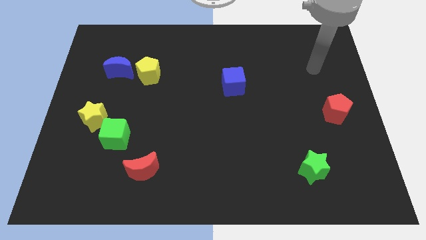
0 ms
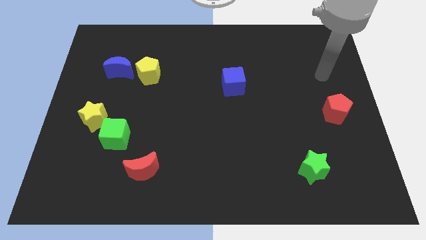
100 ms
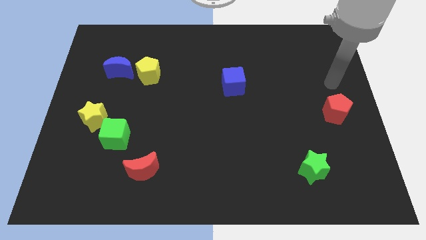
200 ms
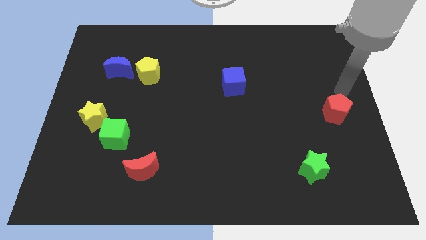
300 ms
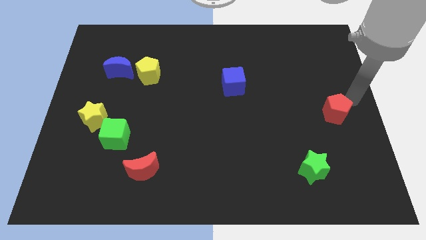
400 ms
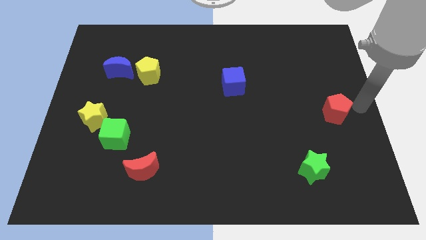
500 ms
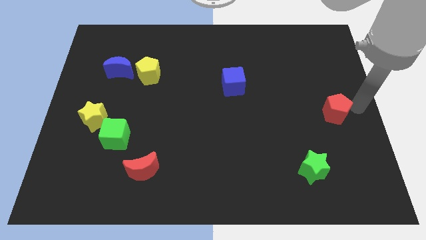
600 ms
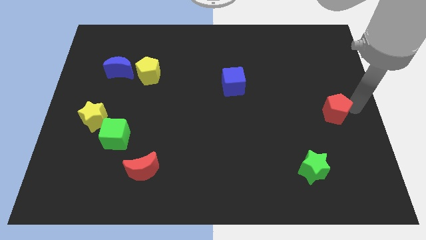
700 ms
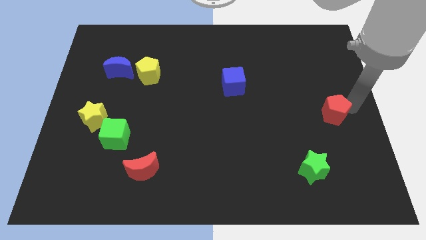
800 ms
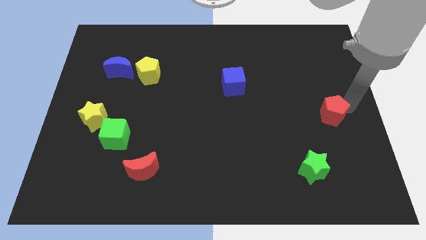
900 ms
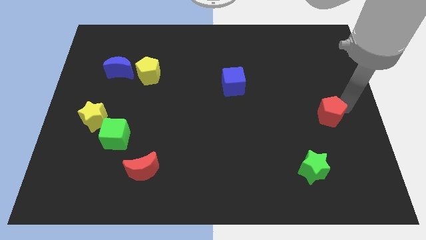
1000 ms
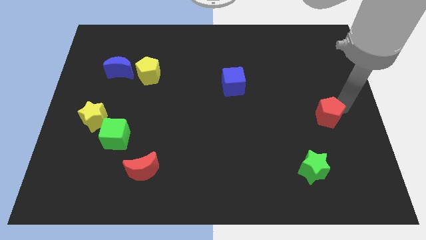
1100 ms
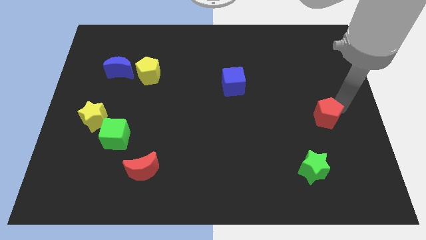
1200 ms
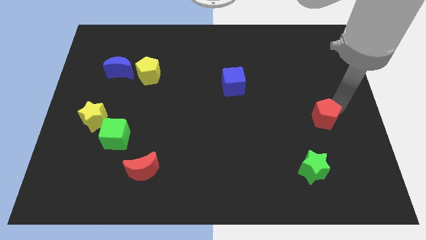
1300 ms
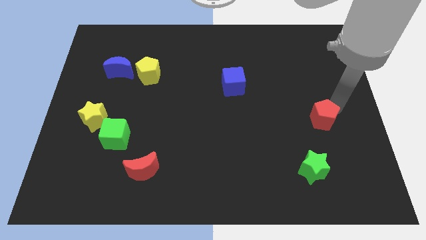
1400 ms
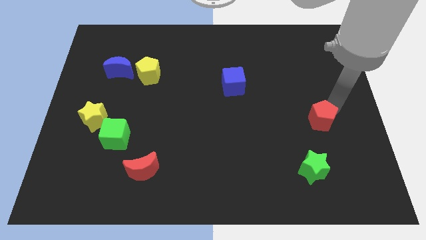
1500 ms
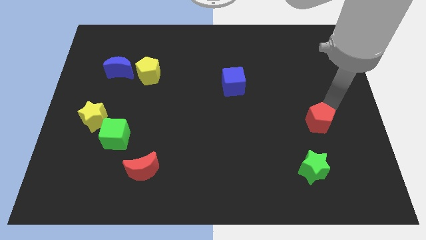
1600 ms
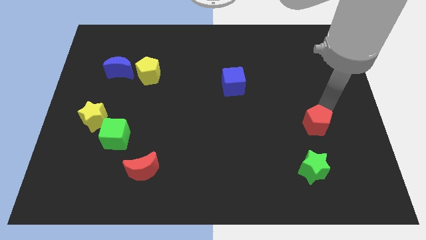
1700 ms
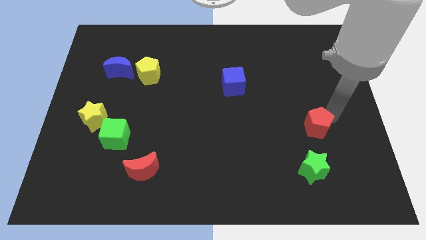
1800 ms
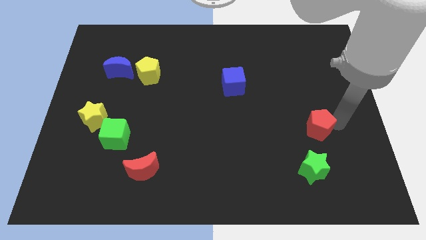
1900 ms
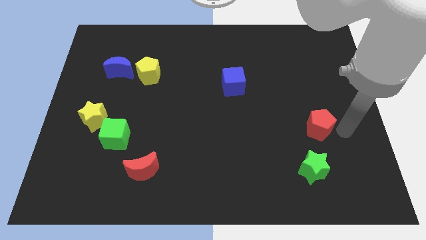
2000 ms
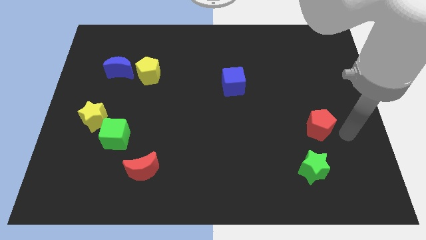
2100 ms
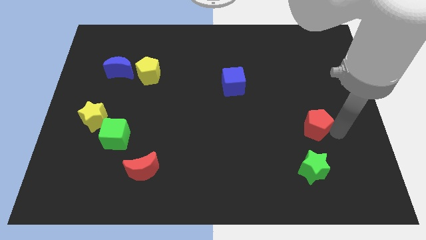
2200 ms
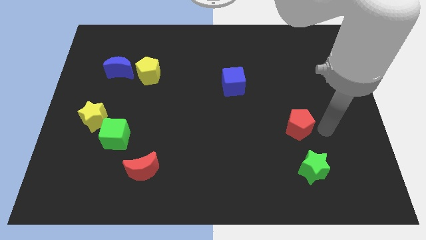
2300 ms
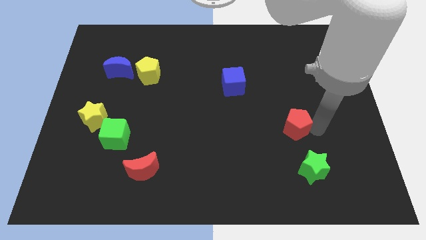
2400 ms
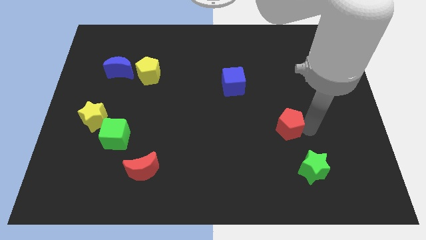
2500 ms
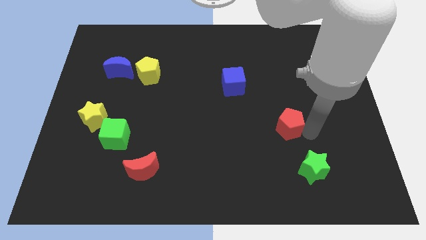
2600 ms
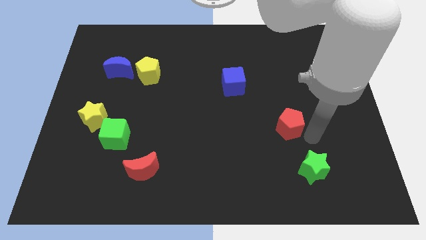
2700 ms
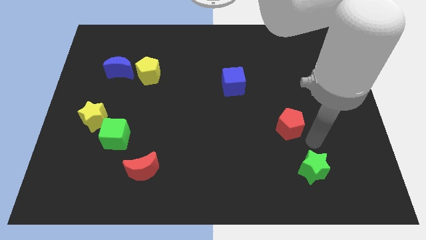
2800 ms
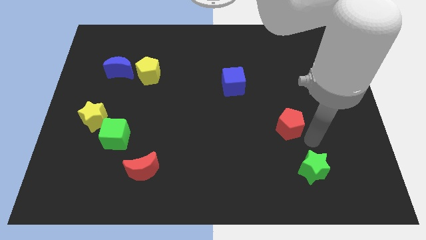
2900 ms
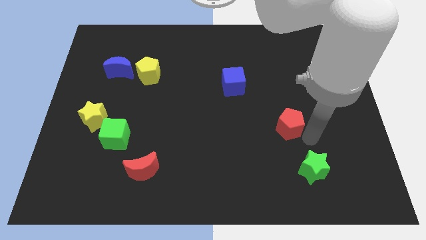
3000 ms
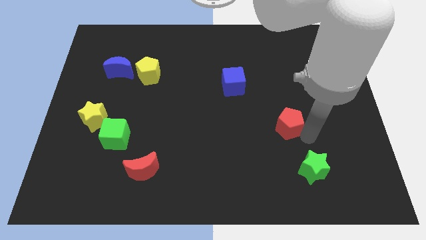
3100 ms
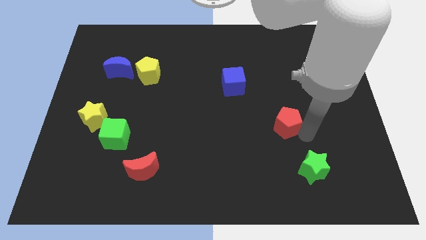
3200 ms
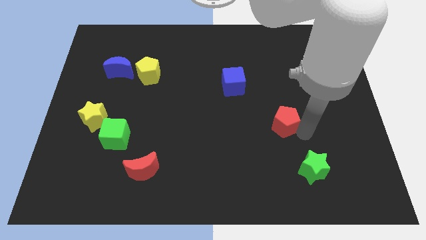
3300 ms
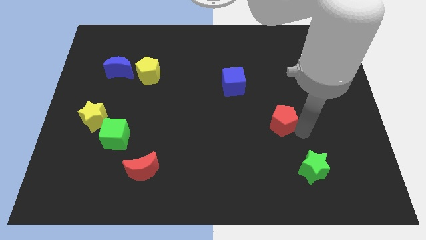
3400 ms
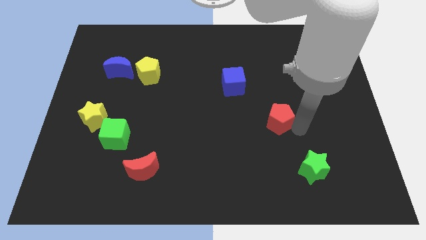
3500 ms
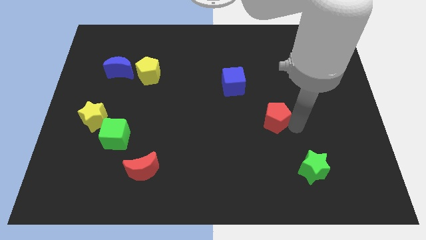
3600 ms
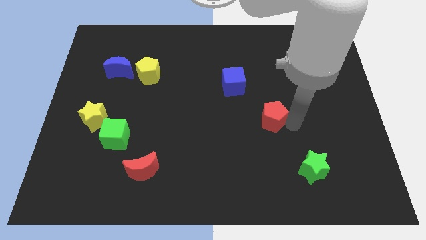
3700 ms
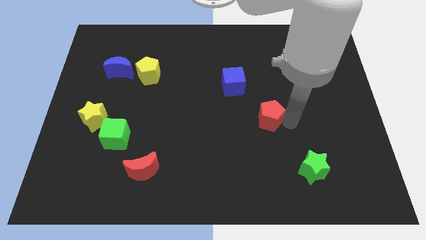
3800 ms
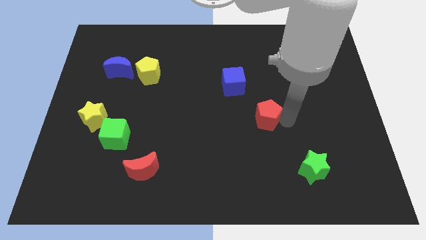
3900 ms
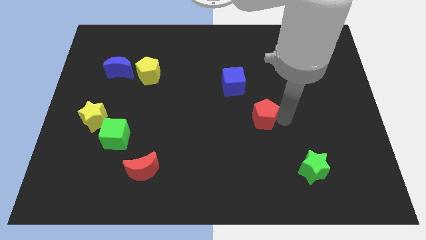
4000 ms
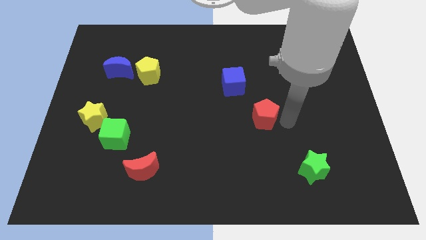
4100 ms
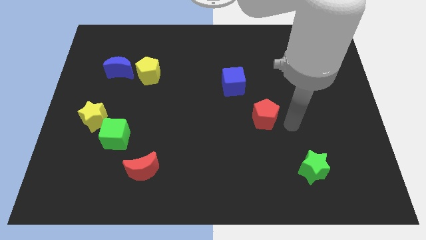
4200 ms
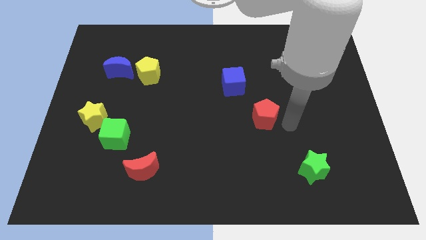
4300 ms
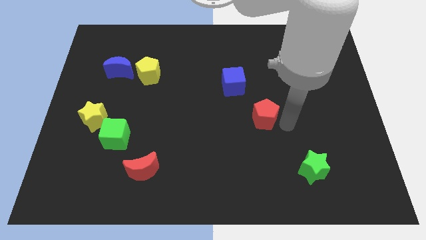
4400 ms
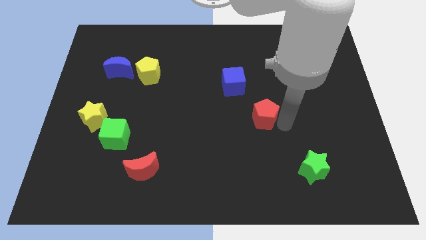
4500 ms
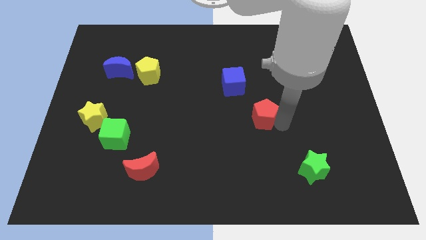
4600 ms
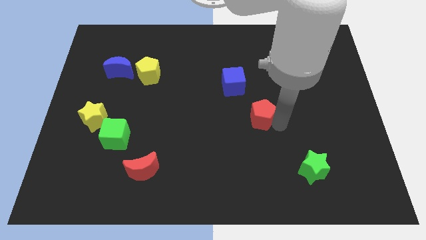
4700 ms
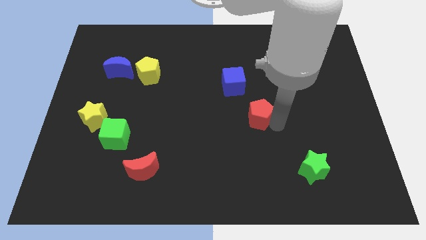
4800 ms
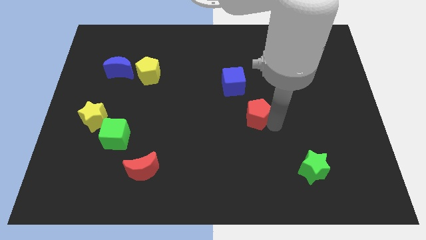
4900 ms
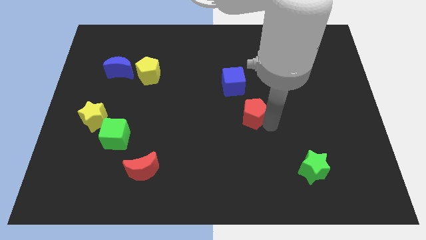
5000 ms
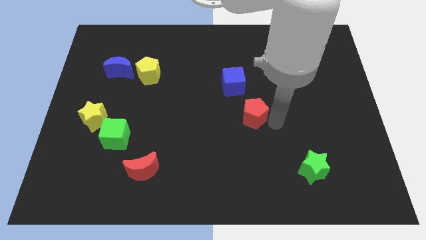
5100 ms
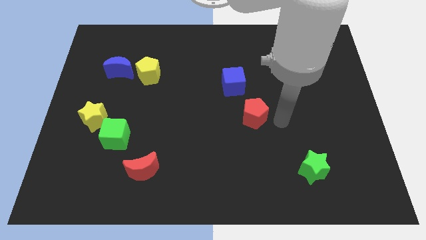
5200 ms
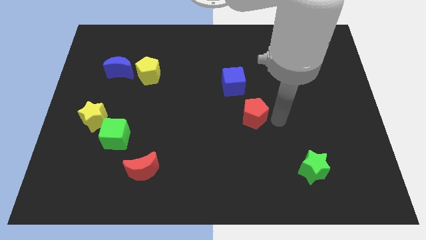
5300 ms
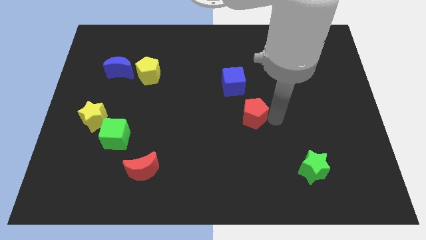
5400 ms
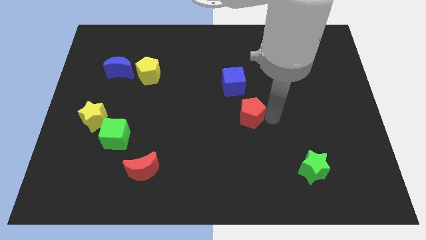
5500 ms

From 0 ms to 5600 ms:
move the red pentagon left

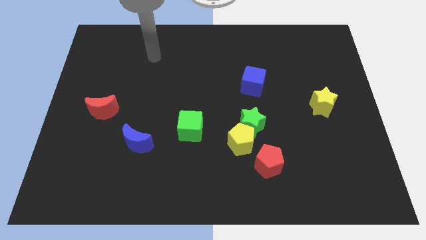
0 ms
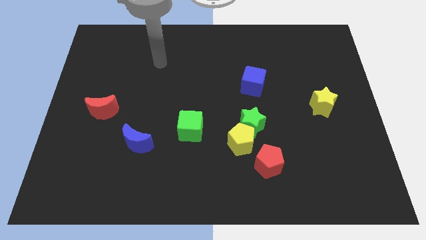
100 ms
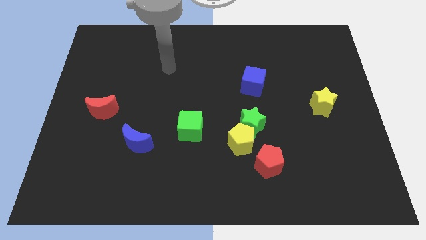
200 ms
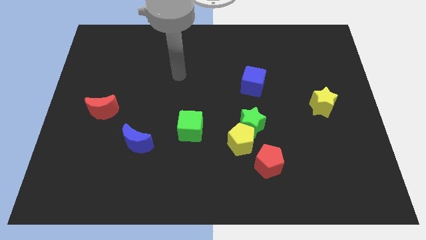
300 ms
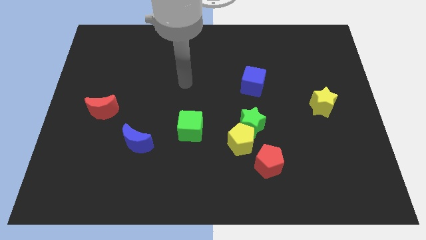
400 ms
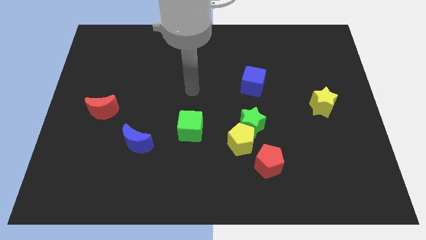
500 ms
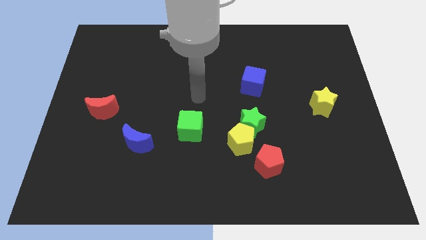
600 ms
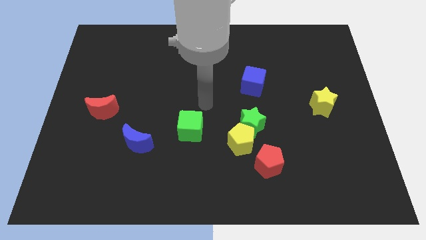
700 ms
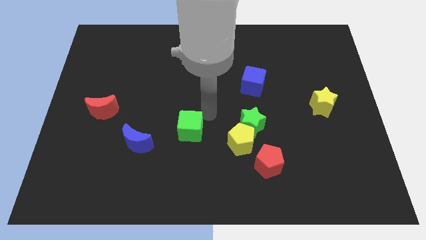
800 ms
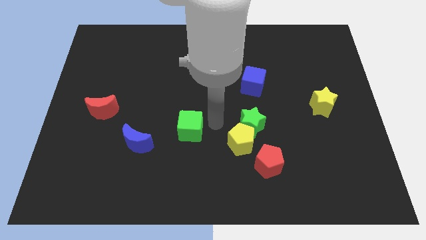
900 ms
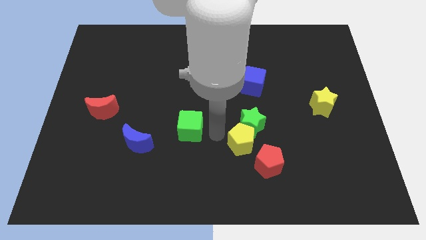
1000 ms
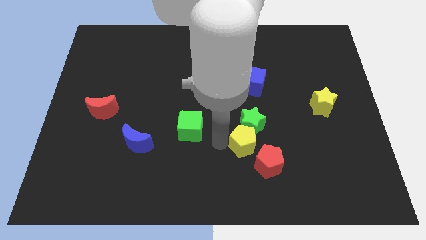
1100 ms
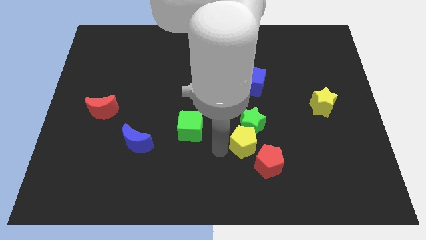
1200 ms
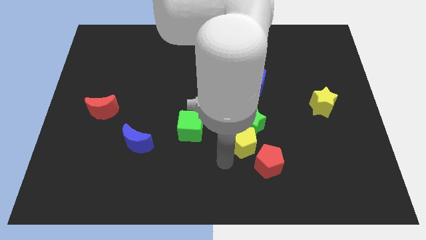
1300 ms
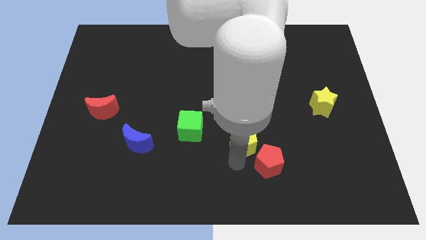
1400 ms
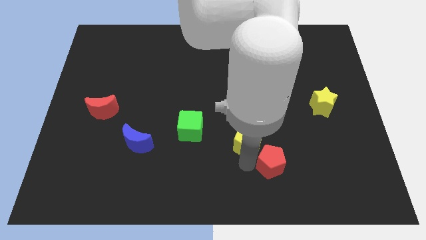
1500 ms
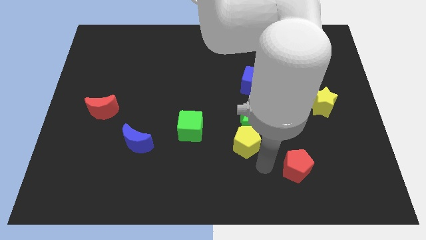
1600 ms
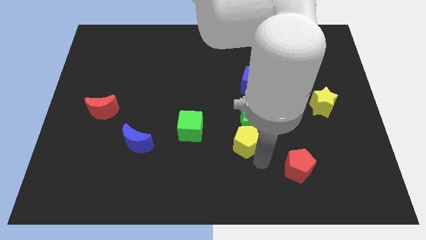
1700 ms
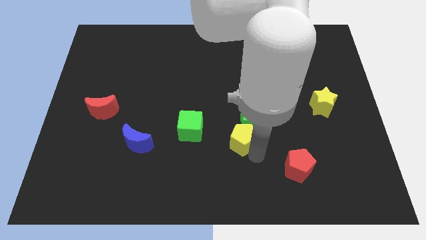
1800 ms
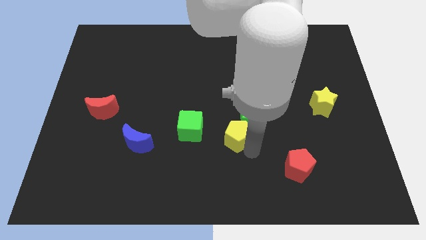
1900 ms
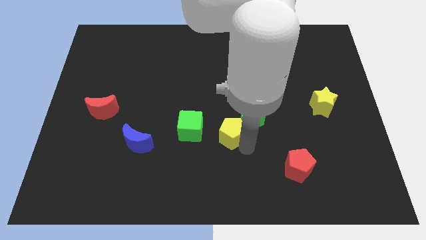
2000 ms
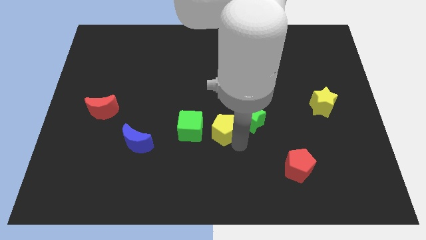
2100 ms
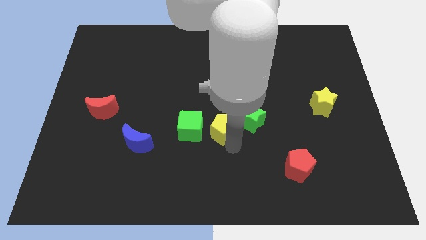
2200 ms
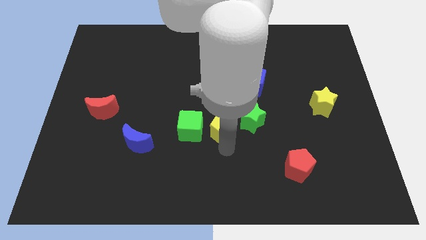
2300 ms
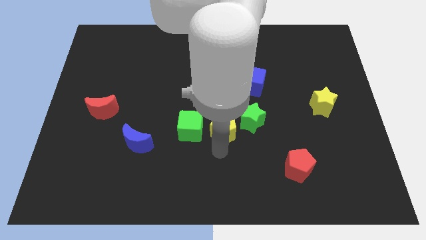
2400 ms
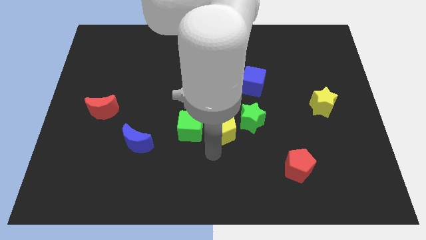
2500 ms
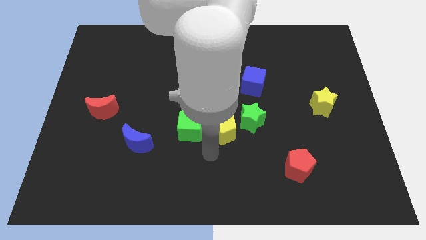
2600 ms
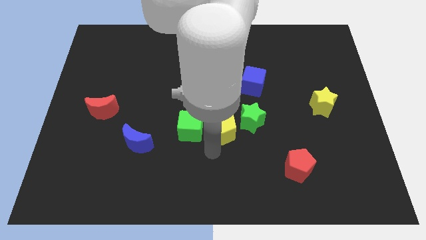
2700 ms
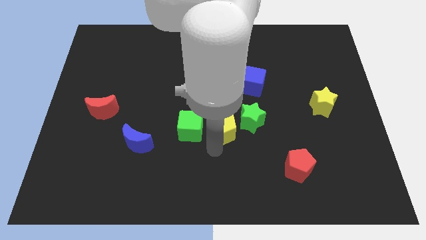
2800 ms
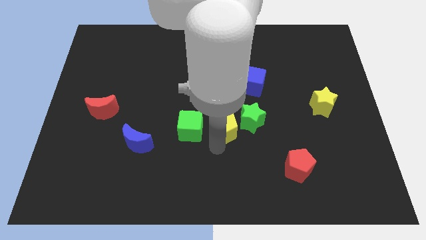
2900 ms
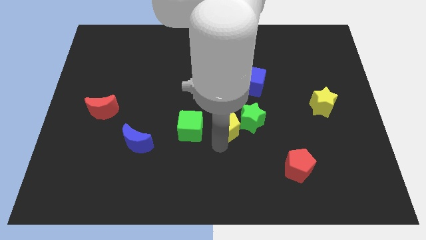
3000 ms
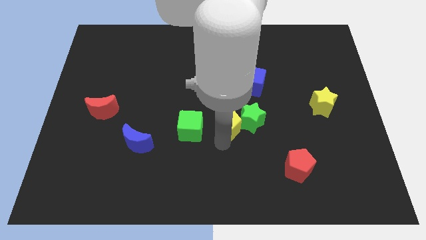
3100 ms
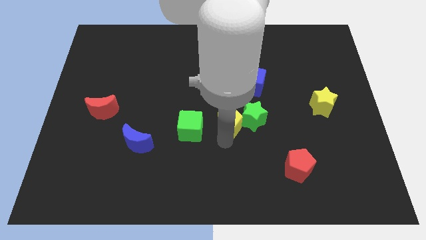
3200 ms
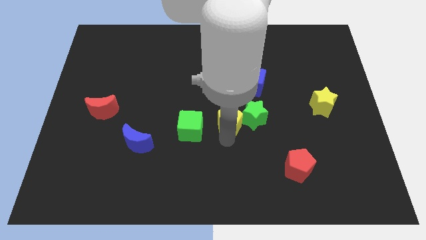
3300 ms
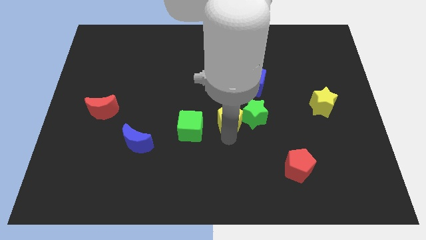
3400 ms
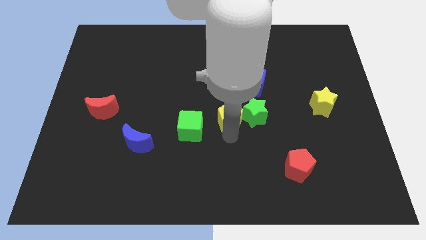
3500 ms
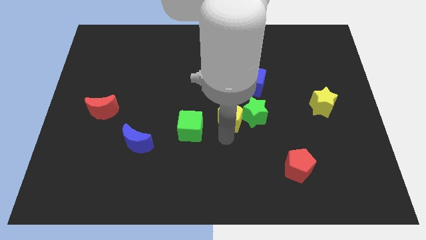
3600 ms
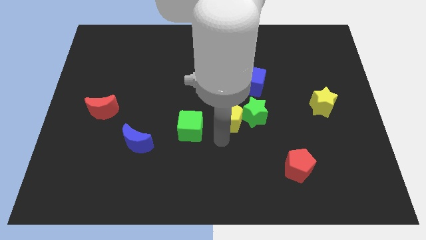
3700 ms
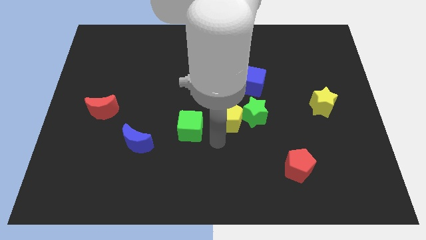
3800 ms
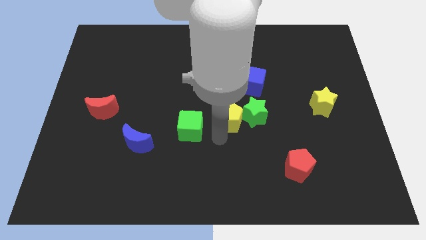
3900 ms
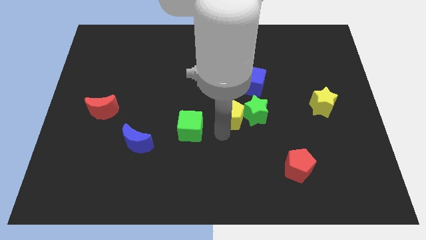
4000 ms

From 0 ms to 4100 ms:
slightly slide the yellow pentagon upwards
